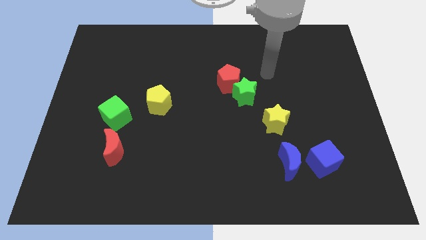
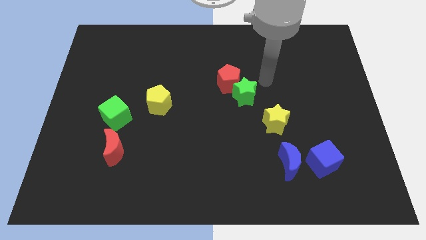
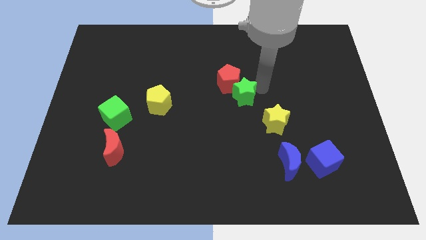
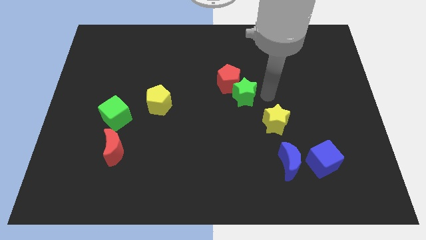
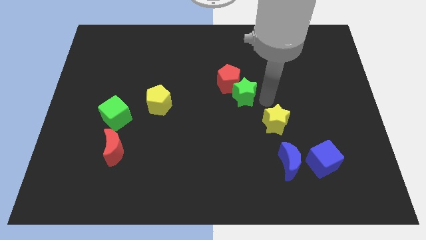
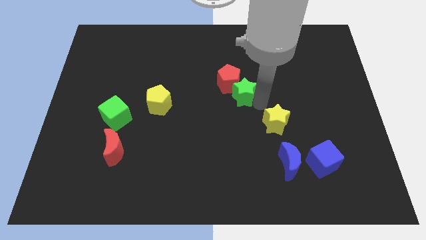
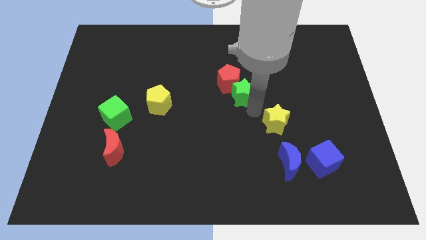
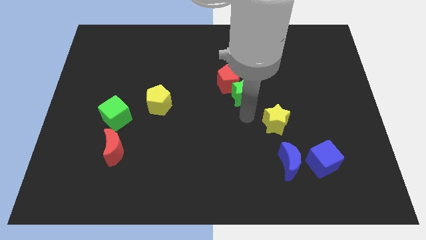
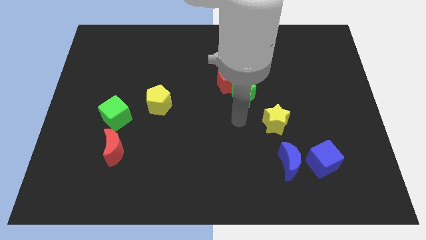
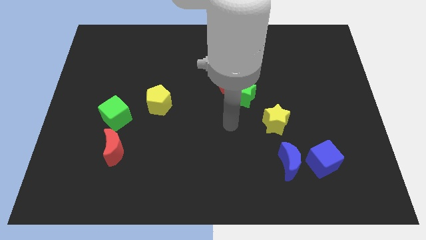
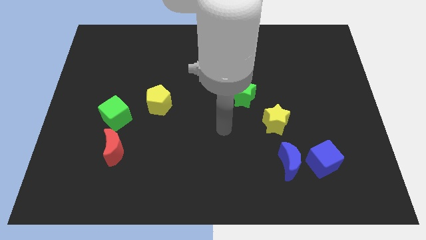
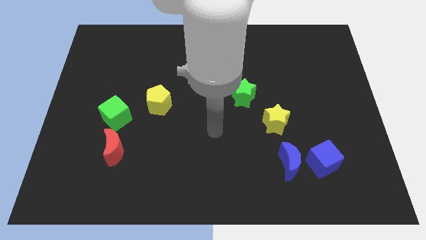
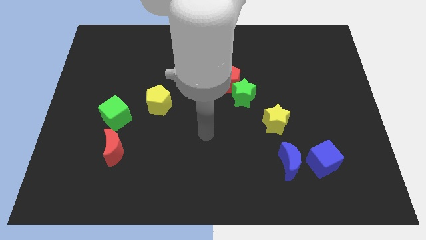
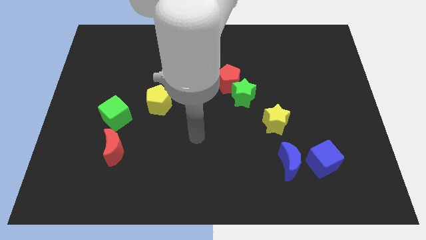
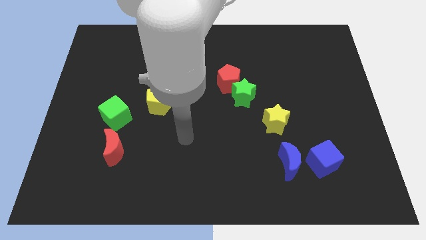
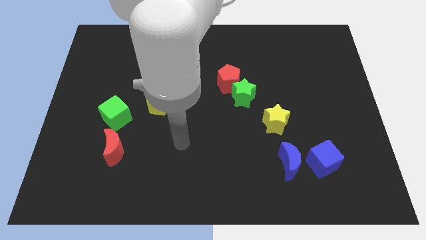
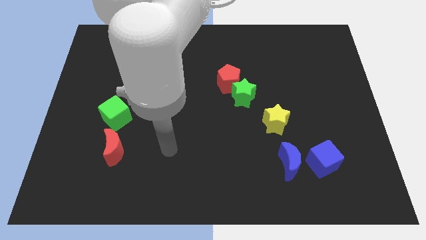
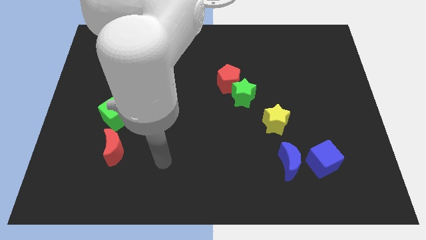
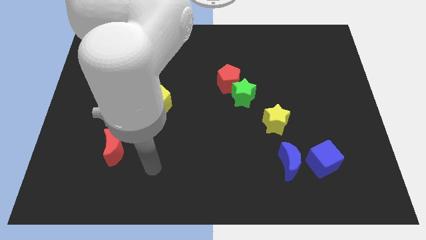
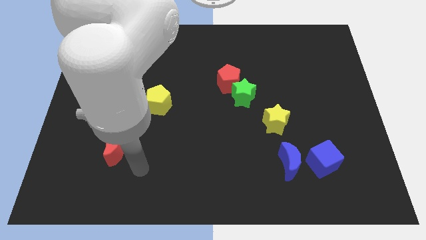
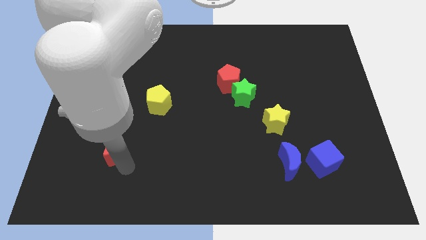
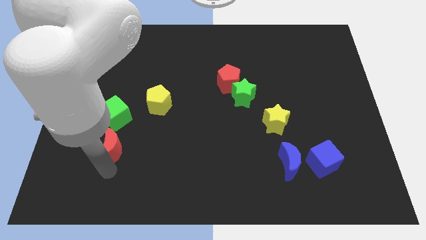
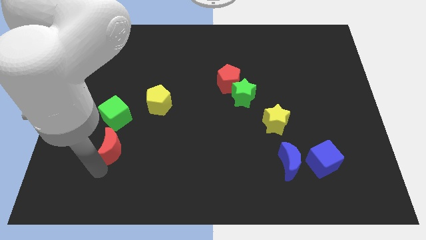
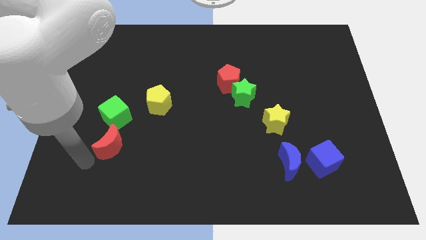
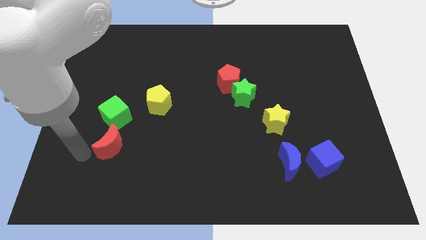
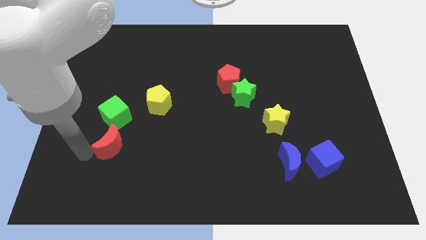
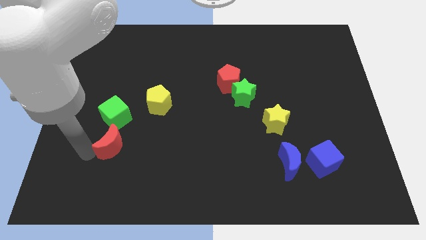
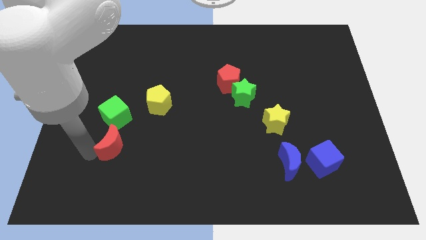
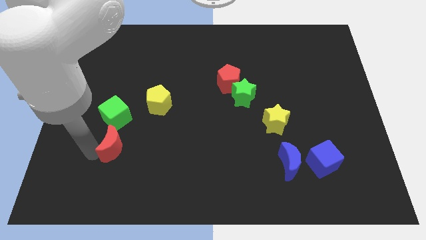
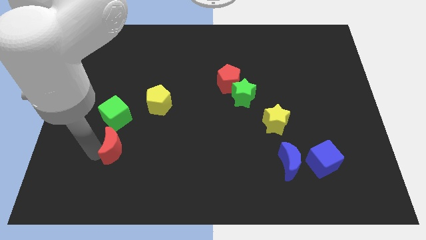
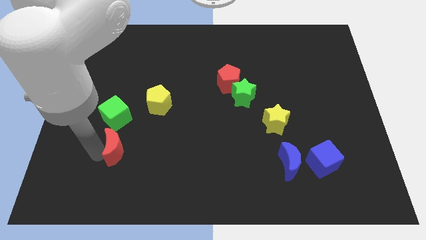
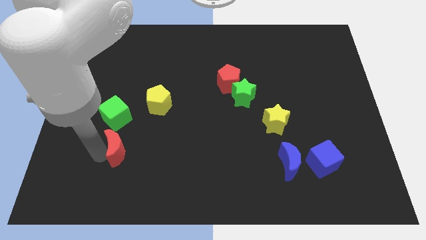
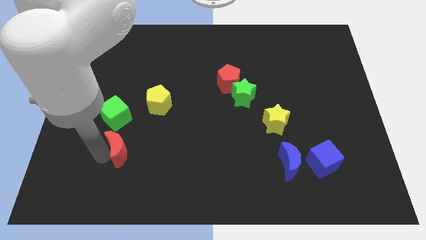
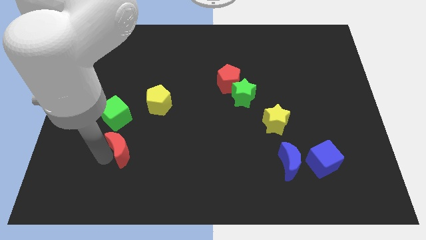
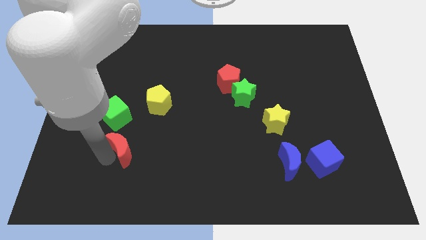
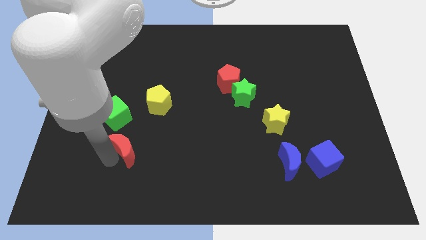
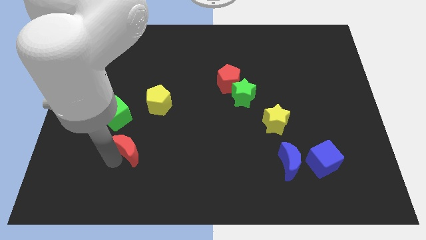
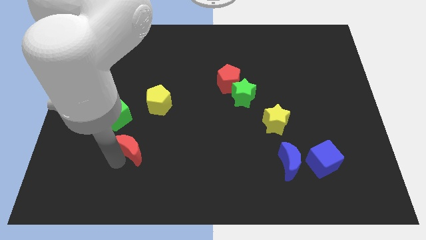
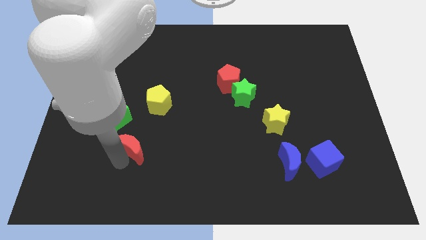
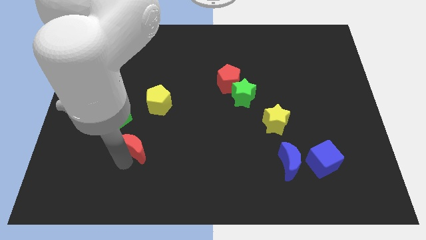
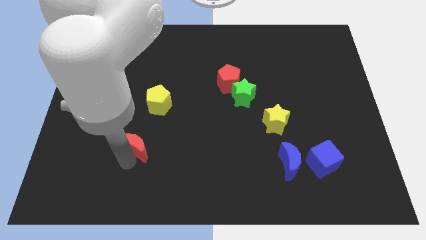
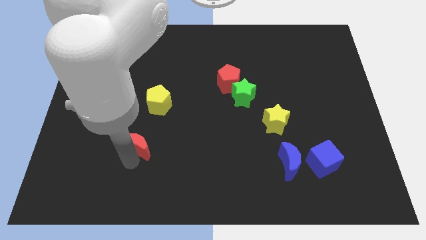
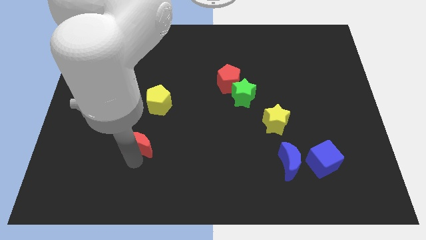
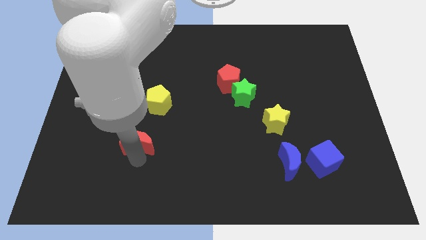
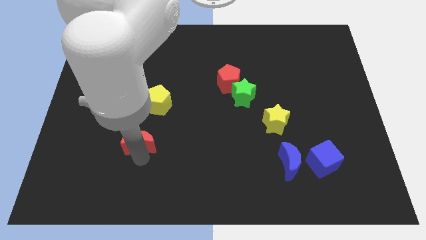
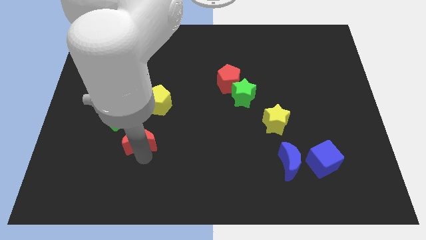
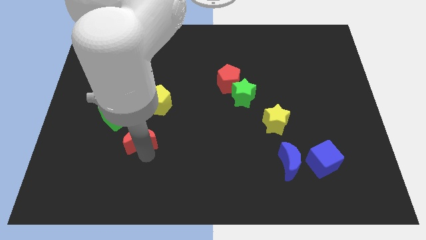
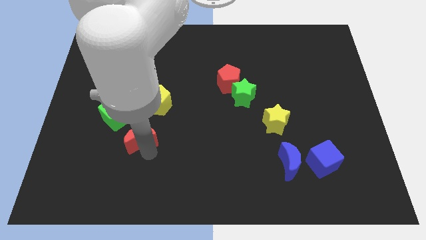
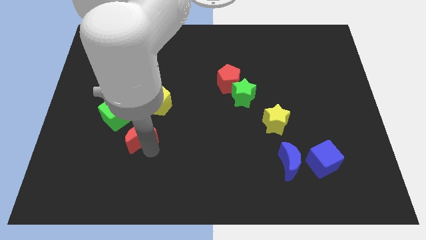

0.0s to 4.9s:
slide the red moon diagonally down and to the left of the yellow pentagon

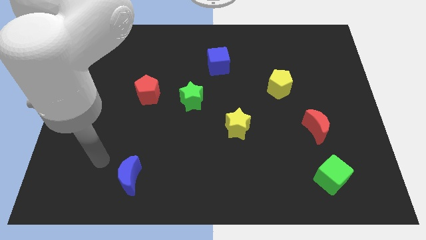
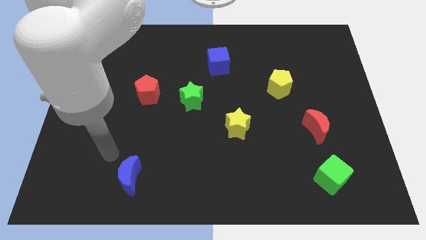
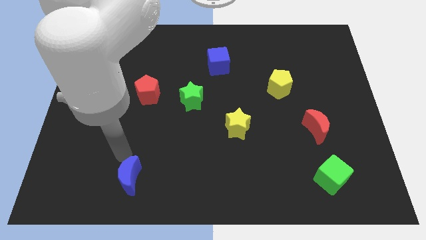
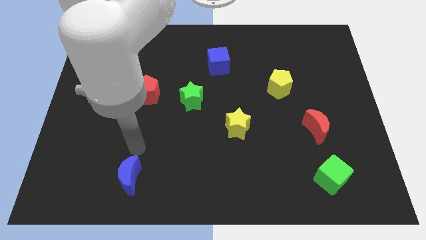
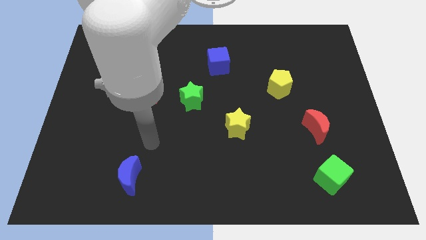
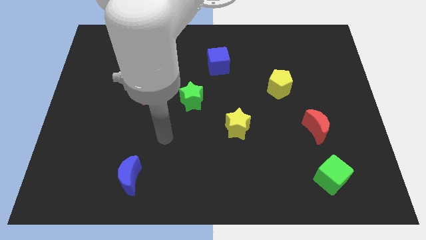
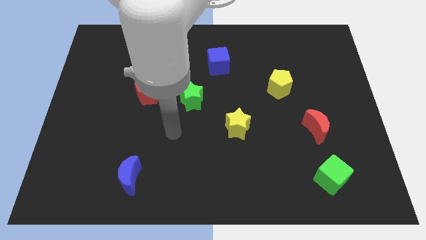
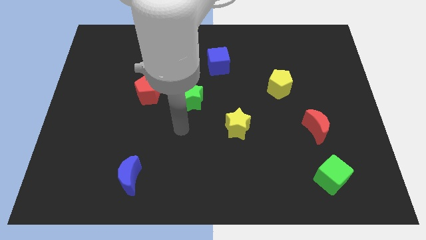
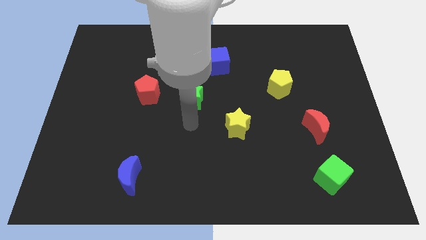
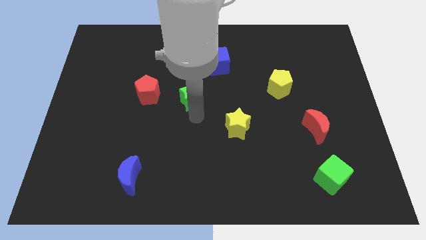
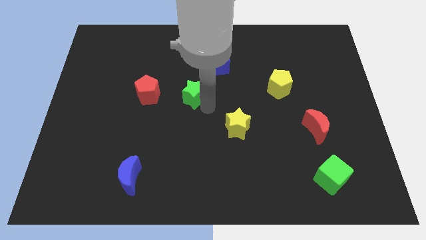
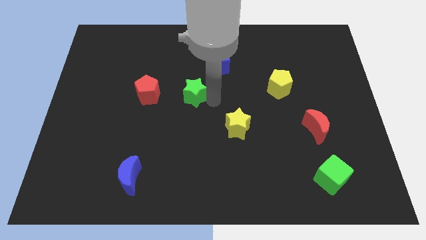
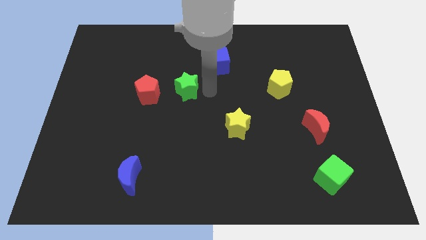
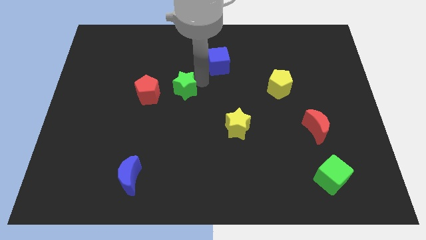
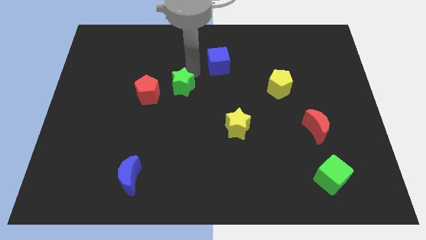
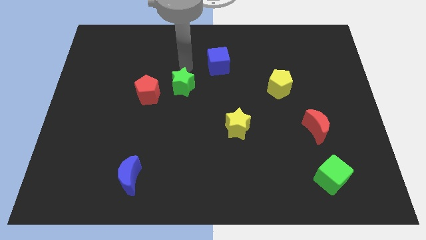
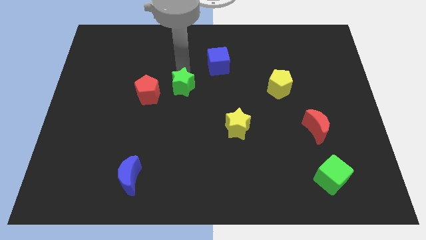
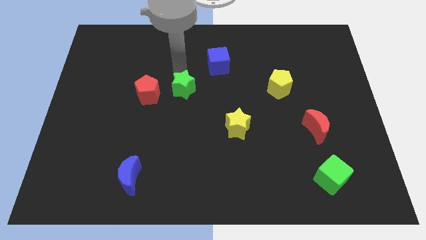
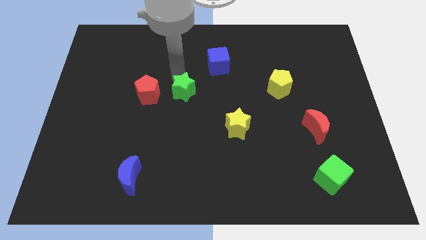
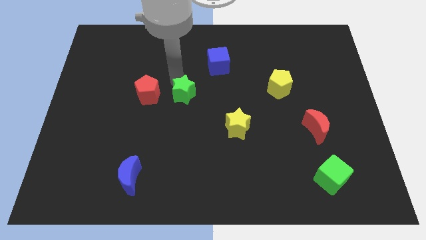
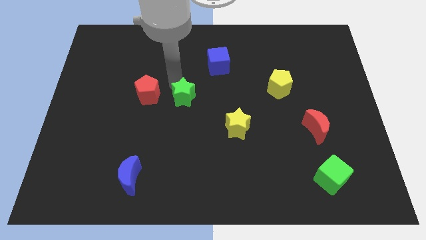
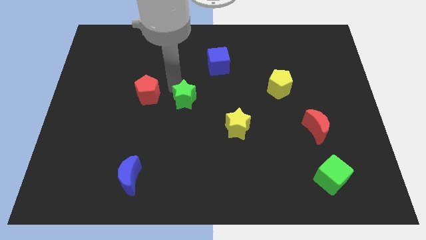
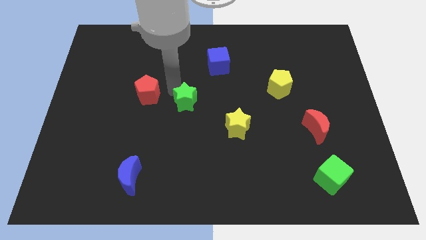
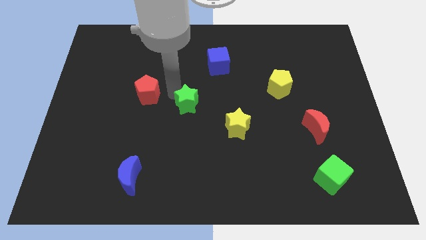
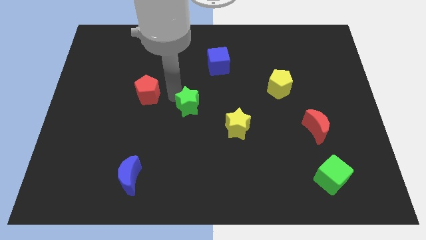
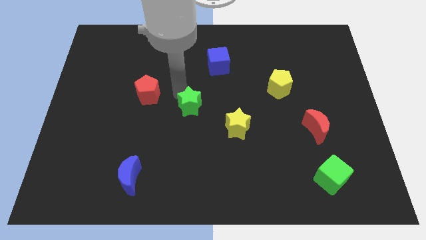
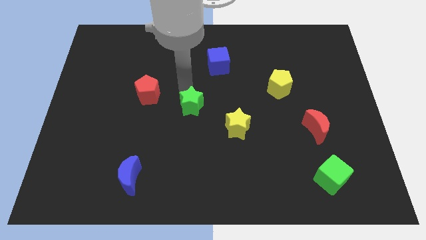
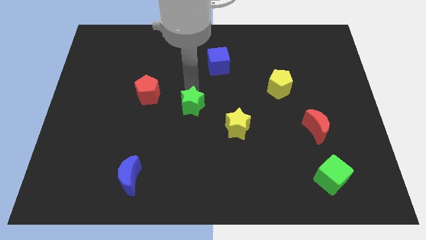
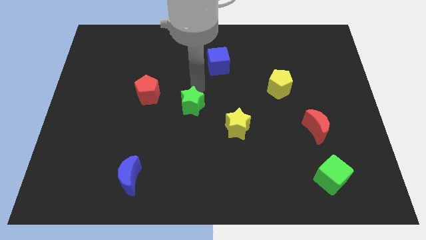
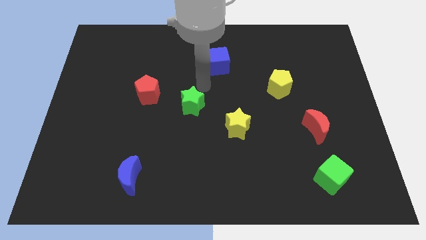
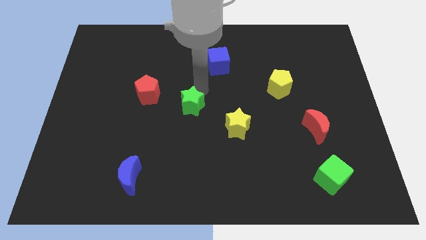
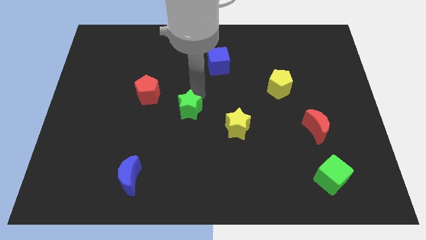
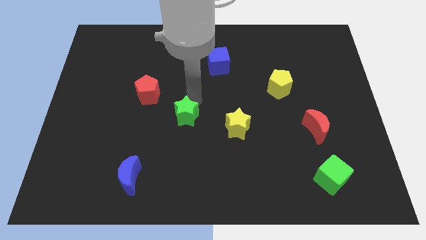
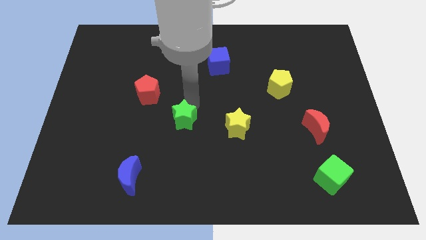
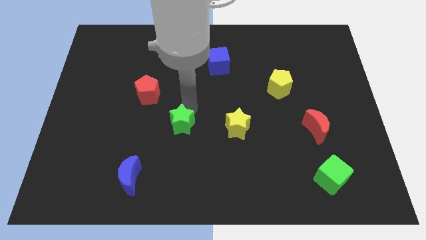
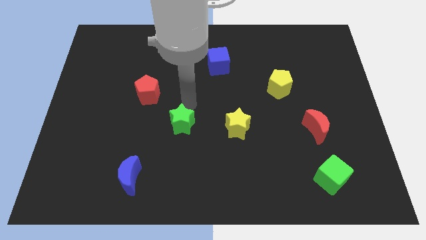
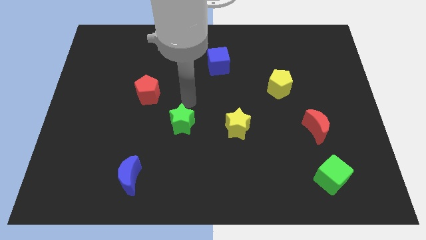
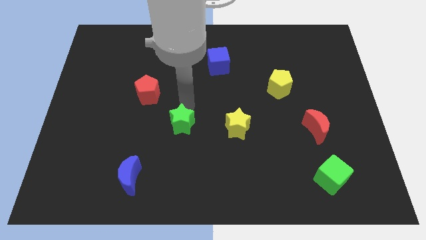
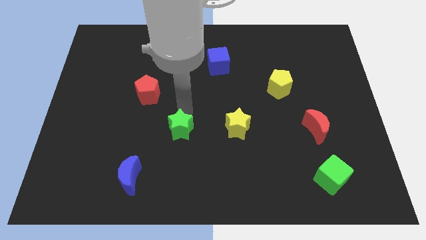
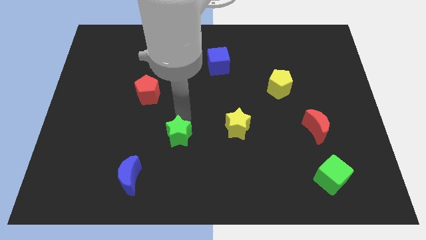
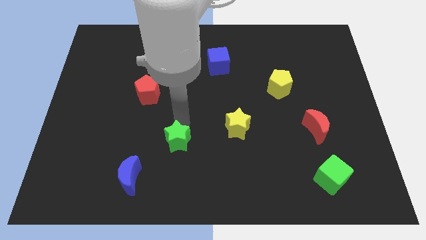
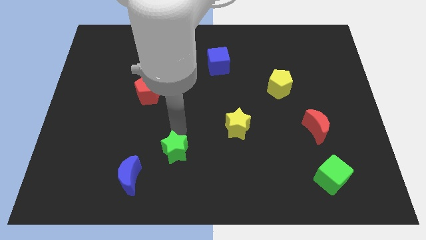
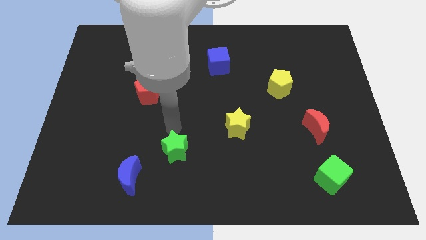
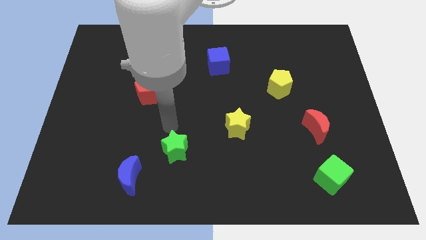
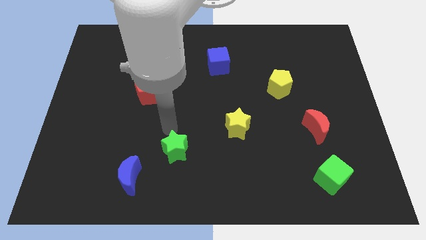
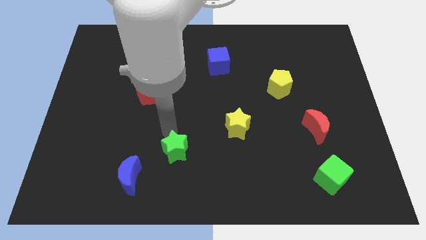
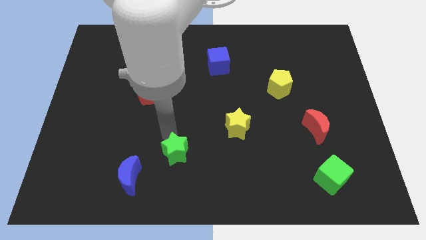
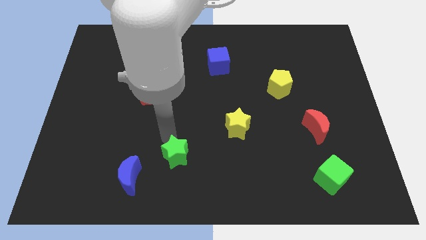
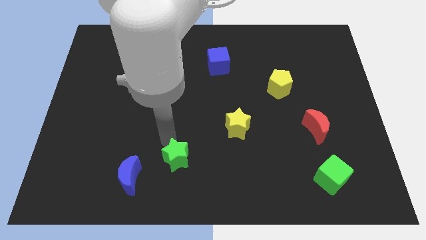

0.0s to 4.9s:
push the green star right of the blue moon
